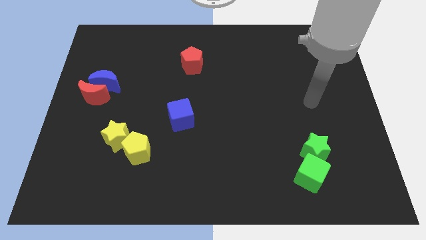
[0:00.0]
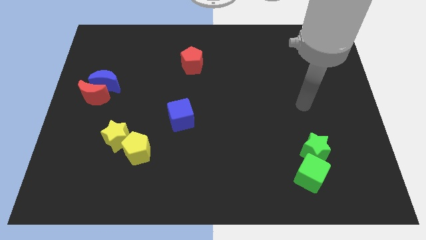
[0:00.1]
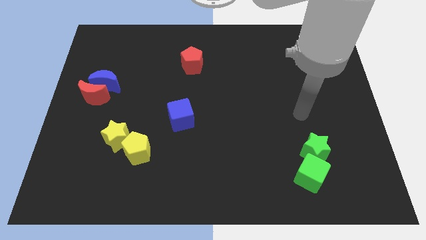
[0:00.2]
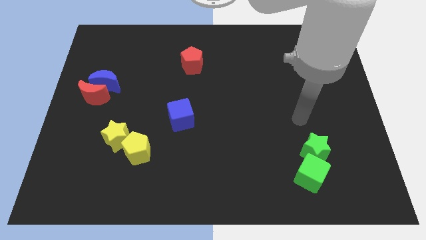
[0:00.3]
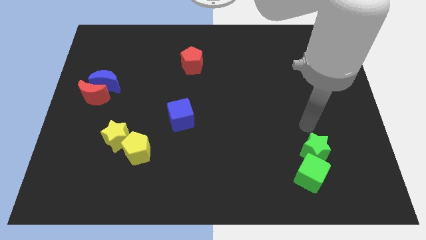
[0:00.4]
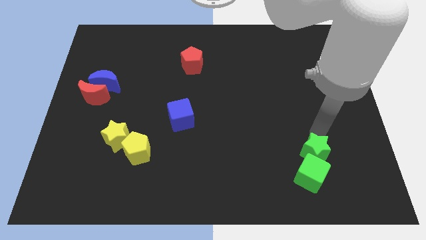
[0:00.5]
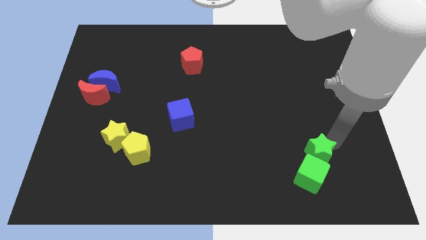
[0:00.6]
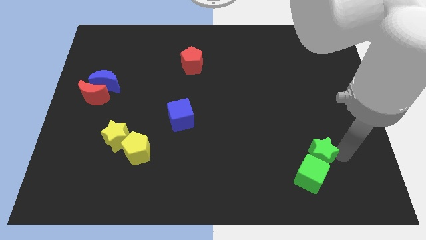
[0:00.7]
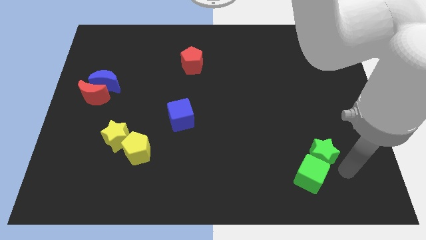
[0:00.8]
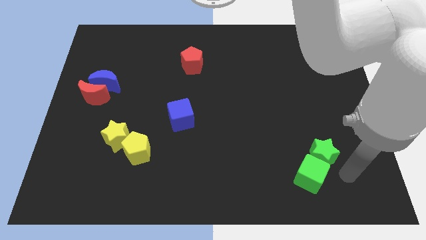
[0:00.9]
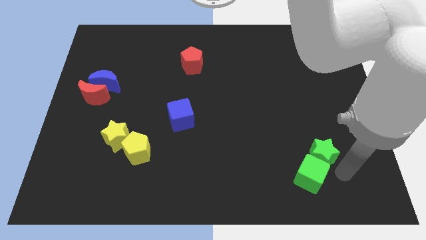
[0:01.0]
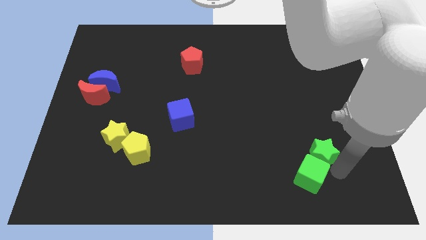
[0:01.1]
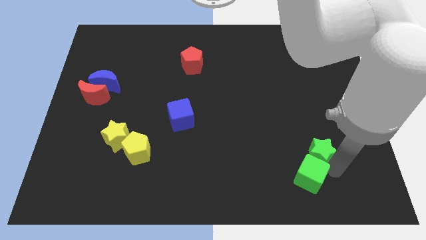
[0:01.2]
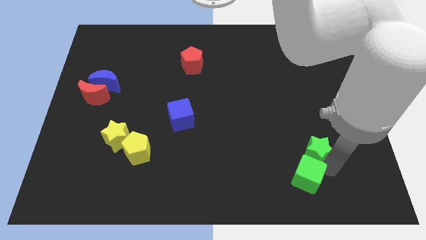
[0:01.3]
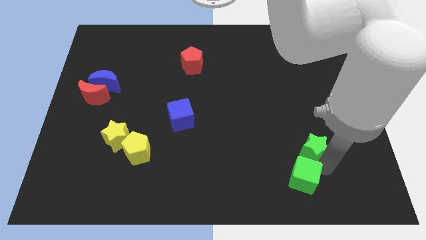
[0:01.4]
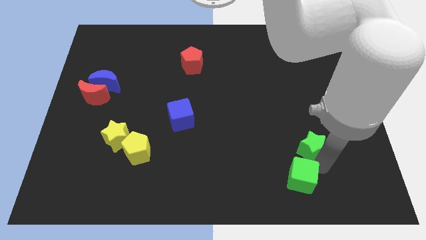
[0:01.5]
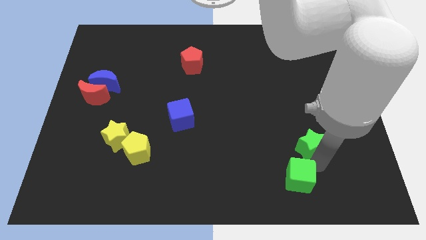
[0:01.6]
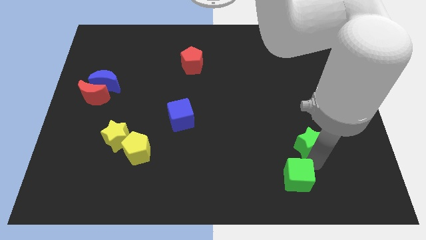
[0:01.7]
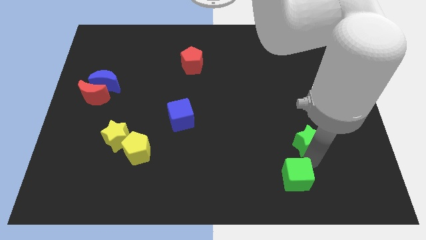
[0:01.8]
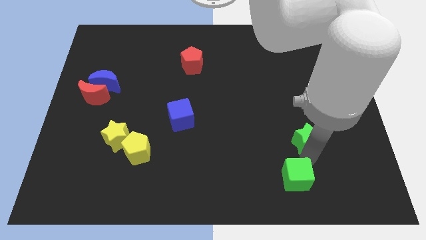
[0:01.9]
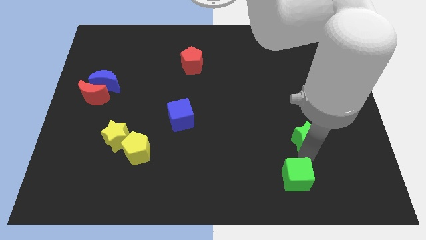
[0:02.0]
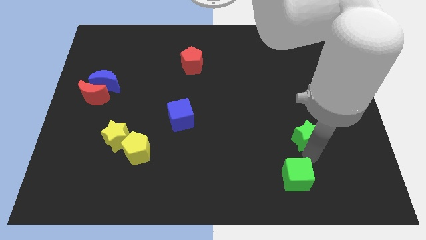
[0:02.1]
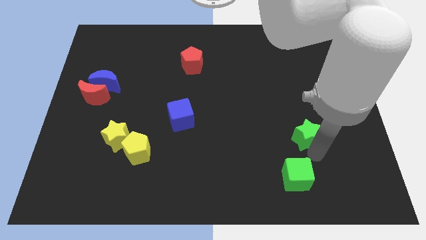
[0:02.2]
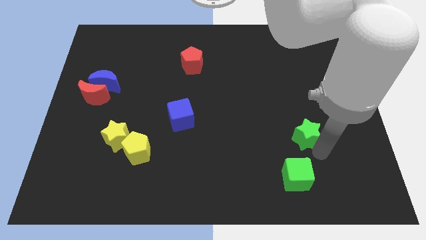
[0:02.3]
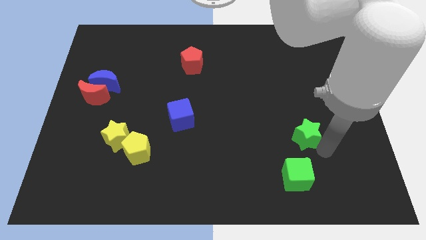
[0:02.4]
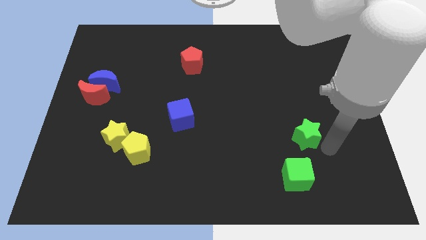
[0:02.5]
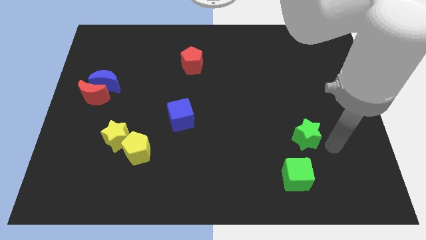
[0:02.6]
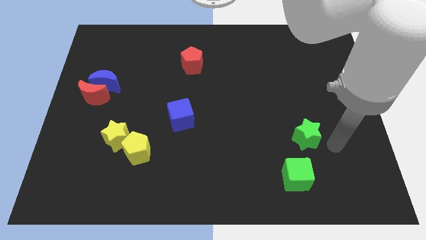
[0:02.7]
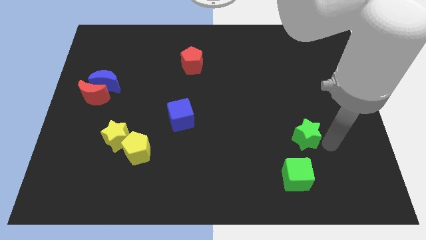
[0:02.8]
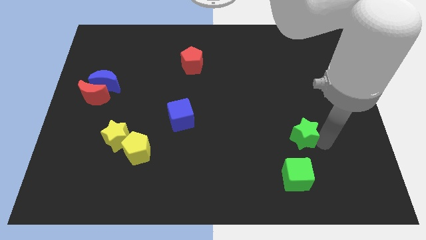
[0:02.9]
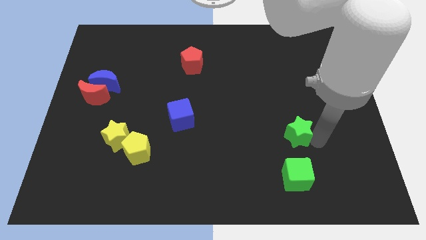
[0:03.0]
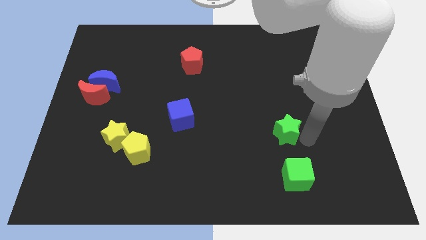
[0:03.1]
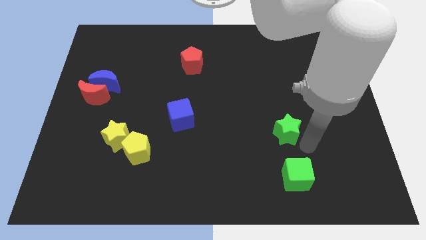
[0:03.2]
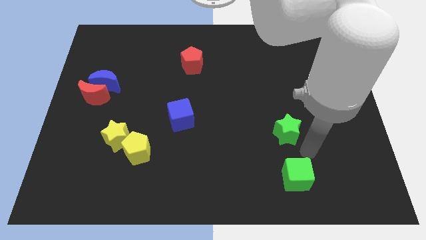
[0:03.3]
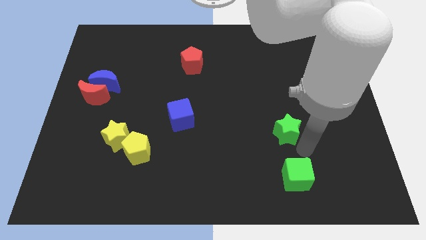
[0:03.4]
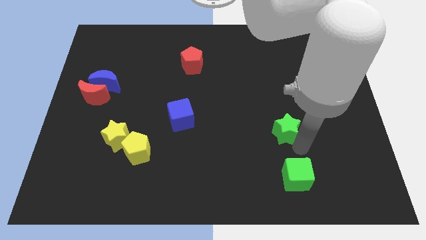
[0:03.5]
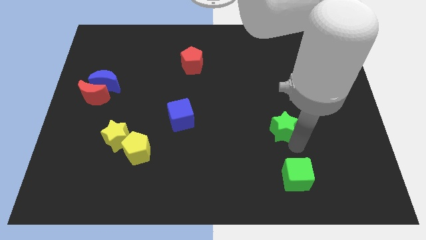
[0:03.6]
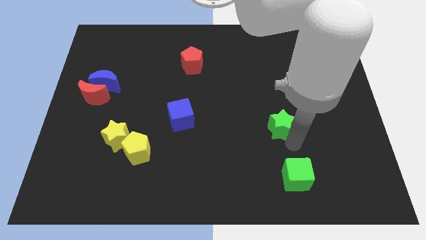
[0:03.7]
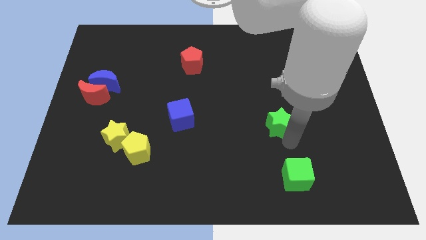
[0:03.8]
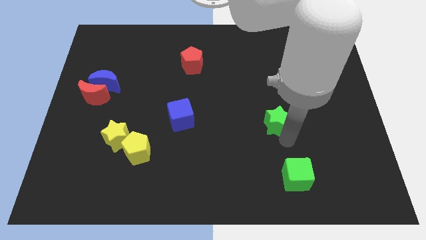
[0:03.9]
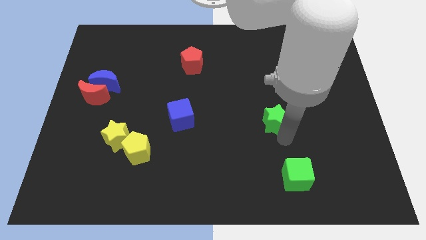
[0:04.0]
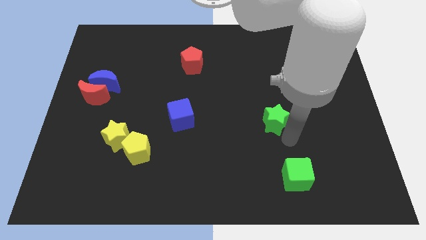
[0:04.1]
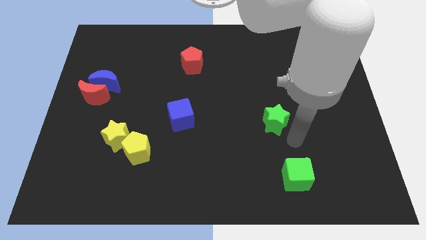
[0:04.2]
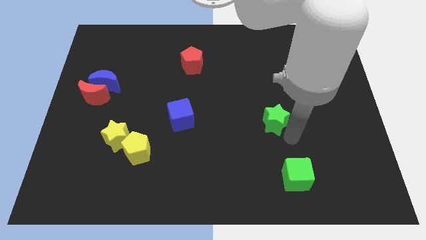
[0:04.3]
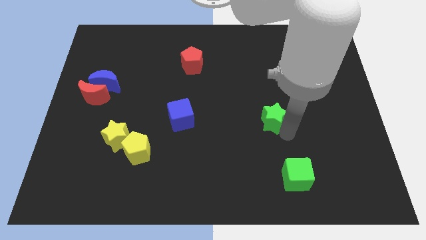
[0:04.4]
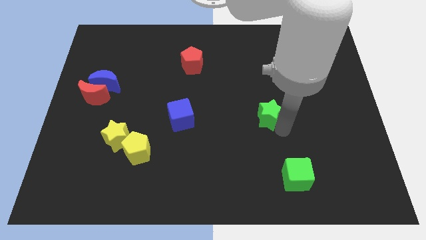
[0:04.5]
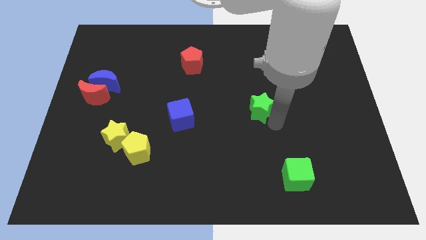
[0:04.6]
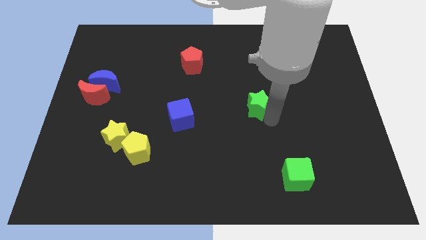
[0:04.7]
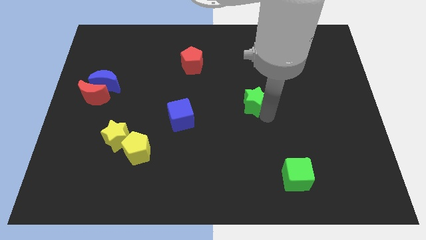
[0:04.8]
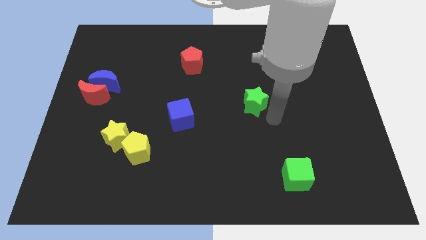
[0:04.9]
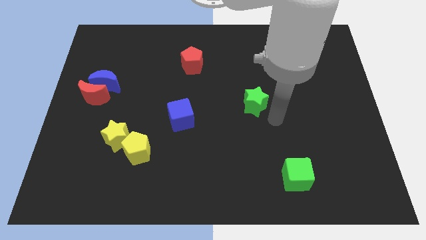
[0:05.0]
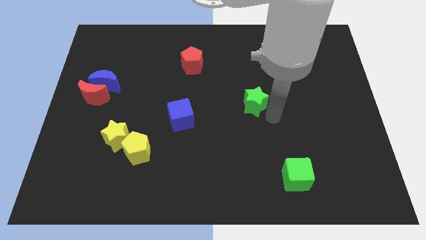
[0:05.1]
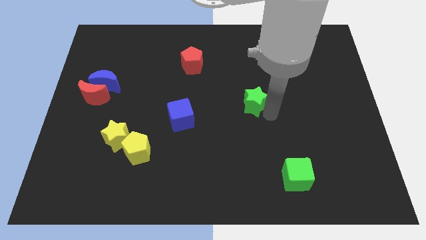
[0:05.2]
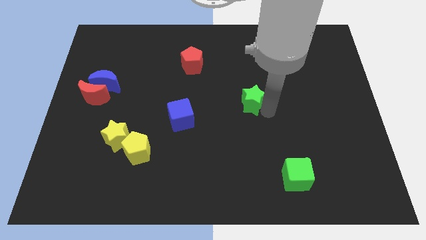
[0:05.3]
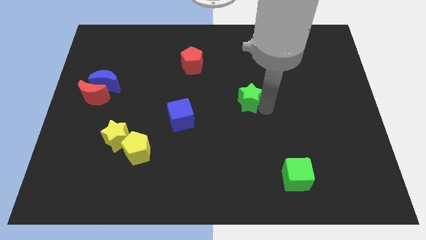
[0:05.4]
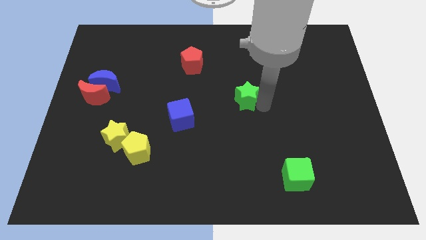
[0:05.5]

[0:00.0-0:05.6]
slide the green star up and then to the left

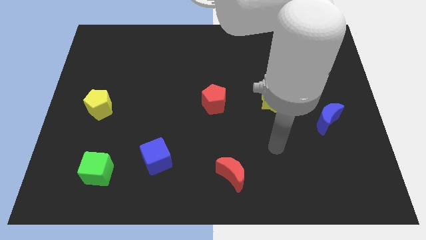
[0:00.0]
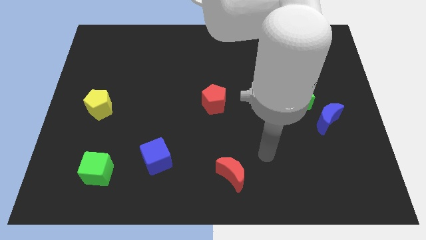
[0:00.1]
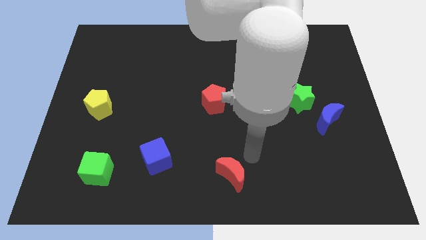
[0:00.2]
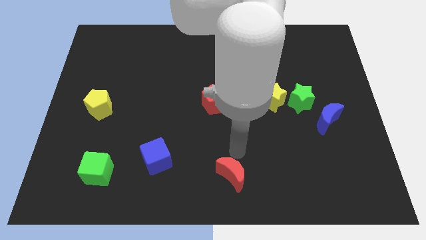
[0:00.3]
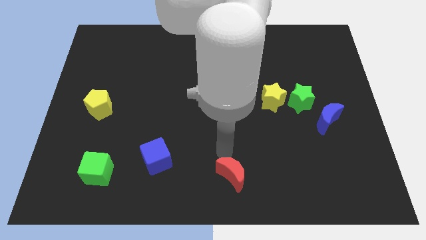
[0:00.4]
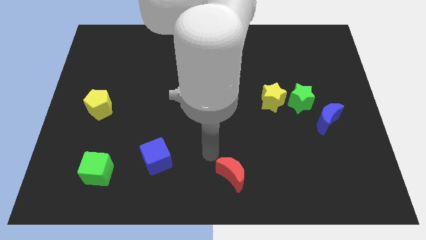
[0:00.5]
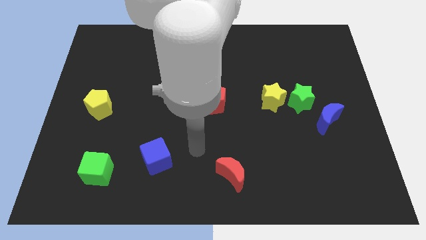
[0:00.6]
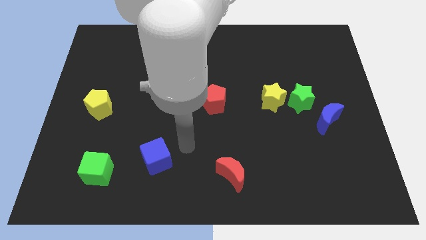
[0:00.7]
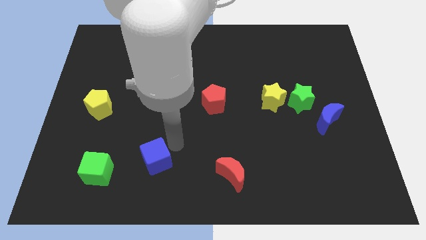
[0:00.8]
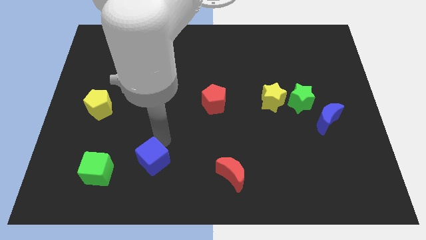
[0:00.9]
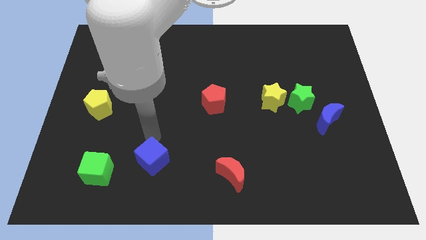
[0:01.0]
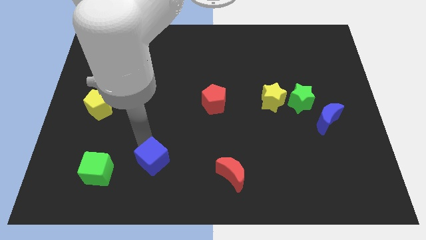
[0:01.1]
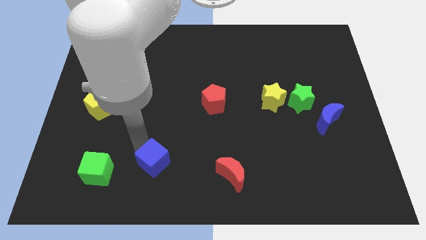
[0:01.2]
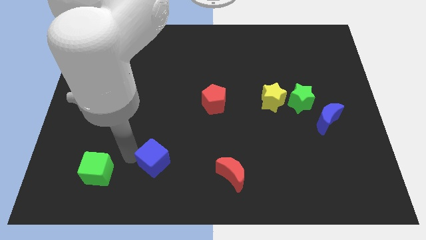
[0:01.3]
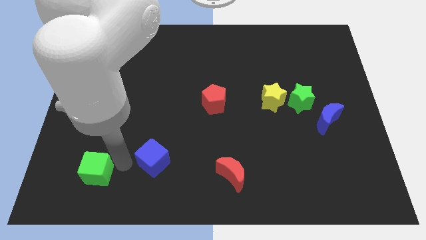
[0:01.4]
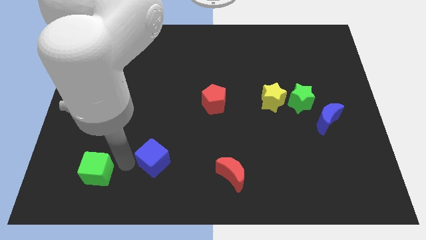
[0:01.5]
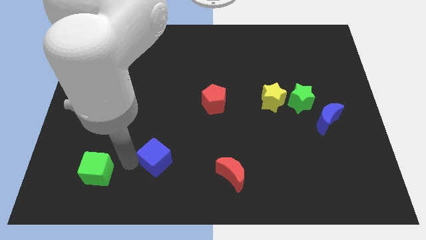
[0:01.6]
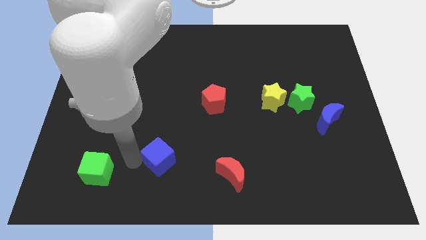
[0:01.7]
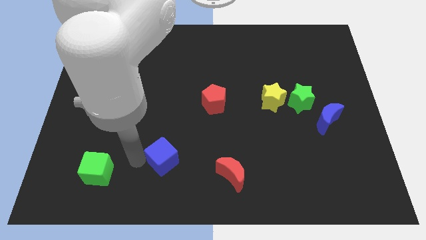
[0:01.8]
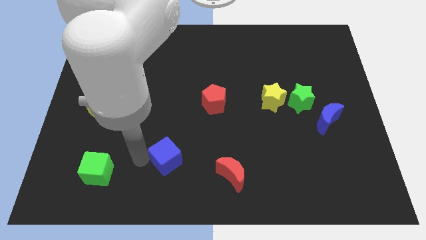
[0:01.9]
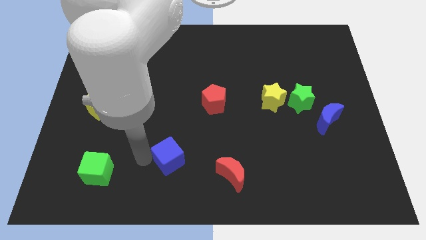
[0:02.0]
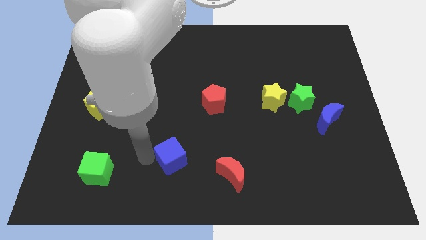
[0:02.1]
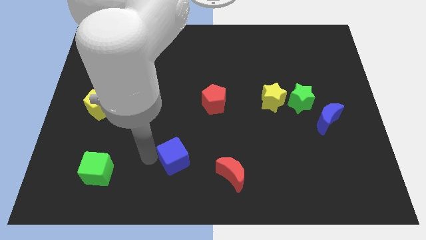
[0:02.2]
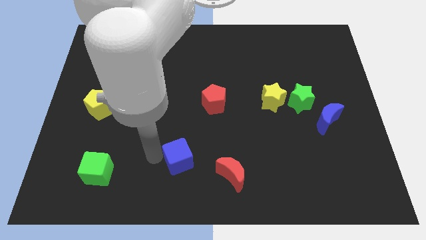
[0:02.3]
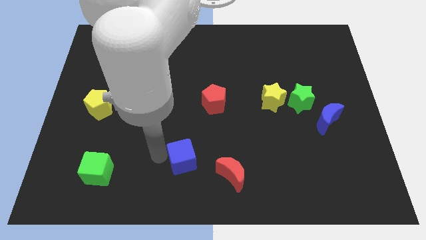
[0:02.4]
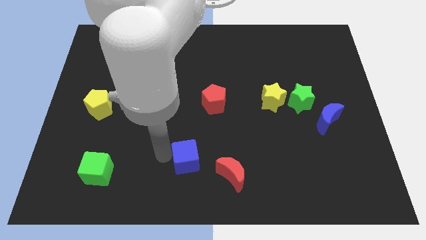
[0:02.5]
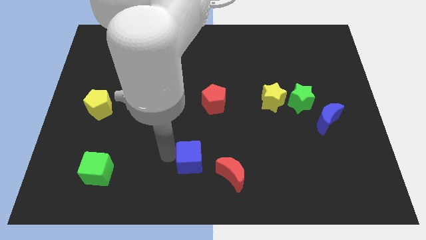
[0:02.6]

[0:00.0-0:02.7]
slide the blue cube to the right a little

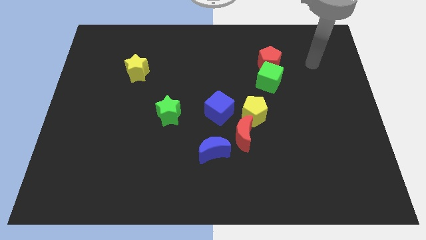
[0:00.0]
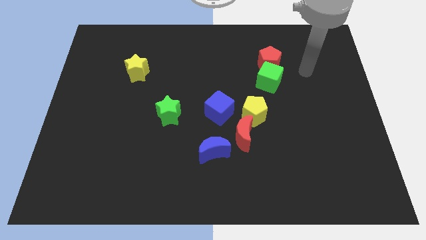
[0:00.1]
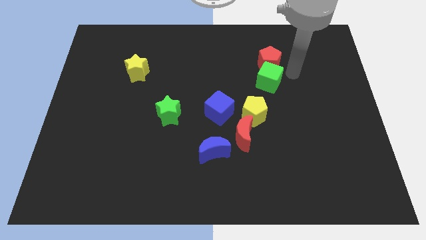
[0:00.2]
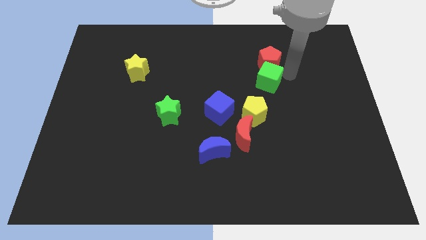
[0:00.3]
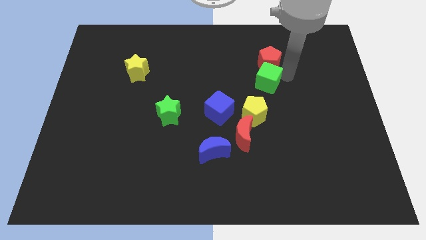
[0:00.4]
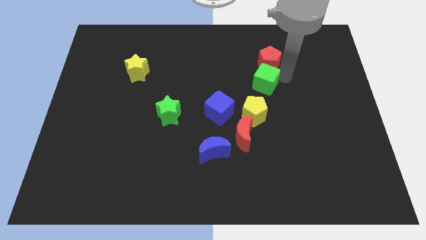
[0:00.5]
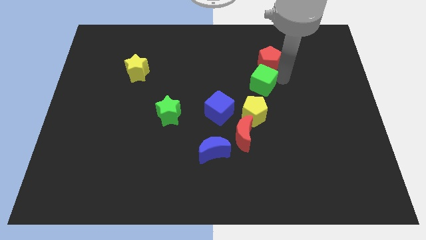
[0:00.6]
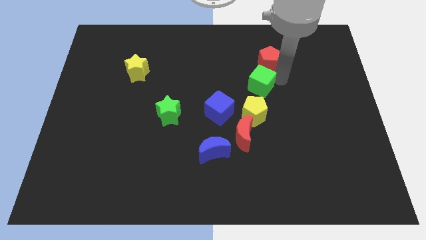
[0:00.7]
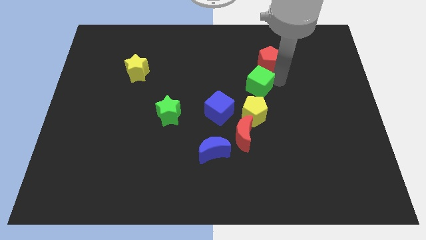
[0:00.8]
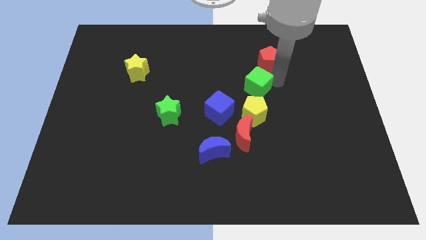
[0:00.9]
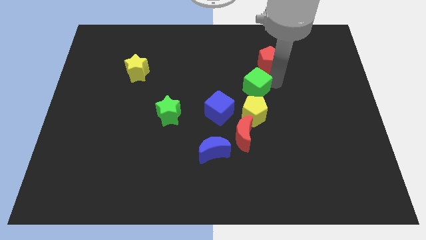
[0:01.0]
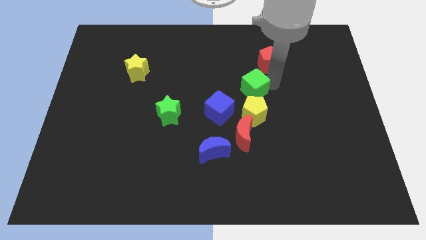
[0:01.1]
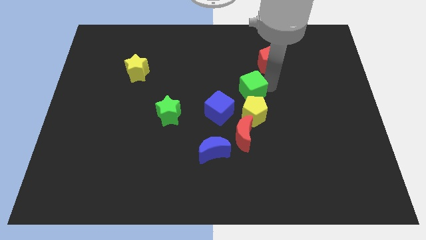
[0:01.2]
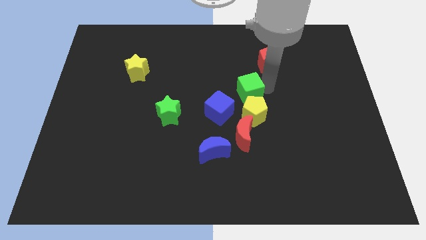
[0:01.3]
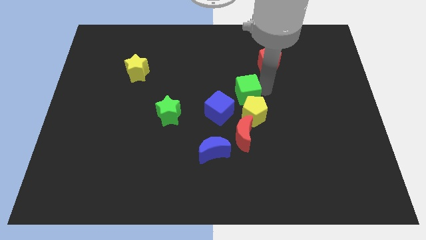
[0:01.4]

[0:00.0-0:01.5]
slightly slide the green cube downwards and to the left
